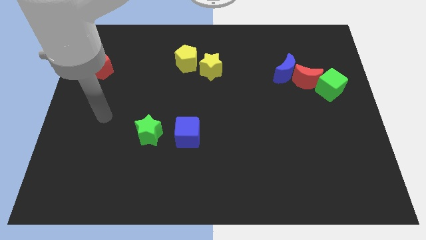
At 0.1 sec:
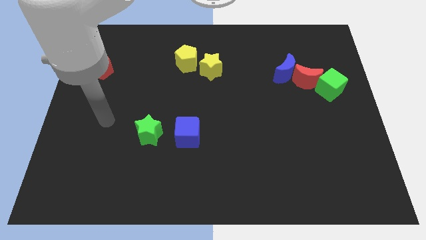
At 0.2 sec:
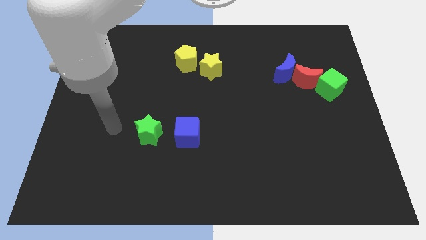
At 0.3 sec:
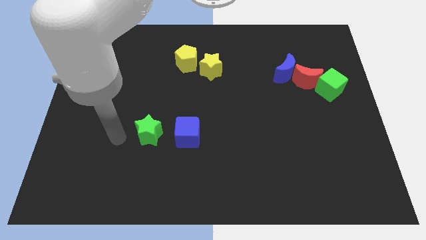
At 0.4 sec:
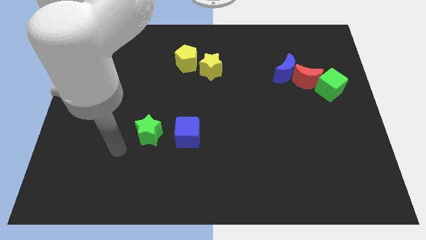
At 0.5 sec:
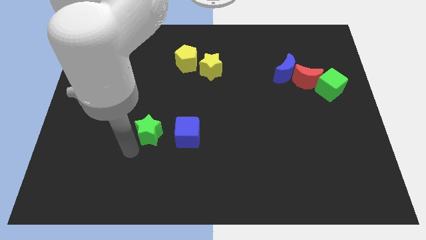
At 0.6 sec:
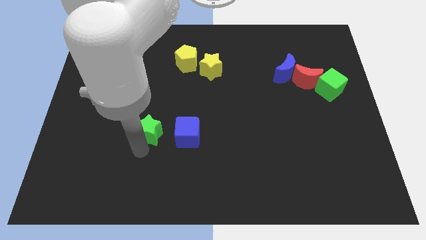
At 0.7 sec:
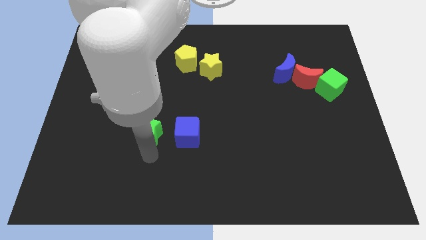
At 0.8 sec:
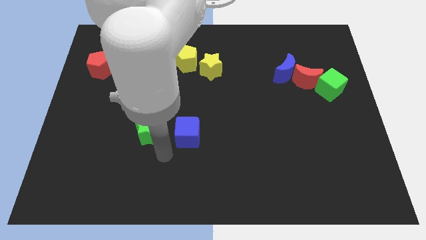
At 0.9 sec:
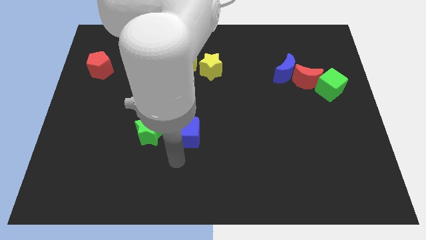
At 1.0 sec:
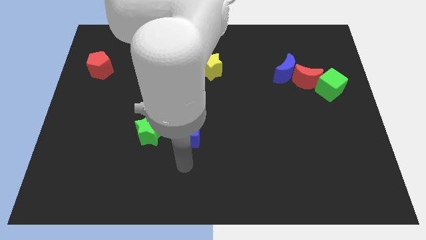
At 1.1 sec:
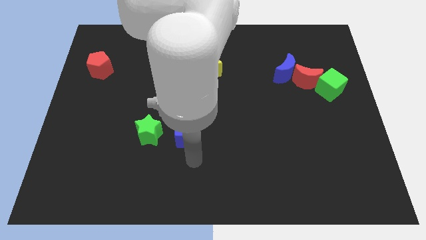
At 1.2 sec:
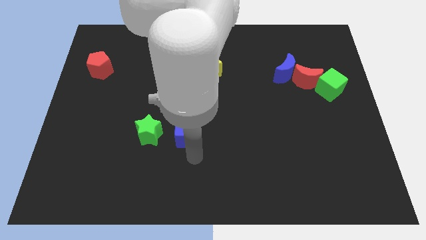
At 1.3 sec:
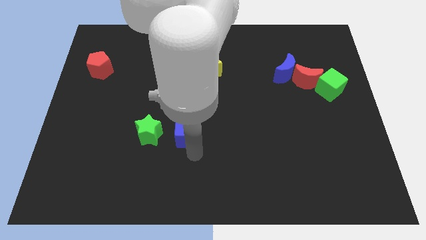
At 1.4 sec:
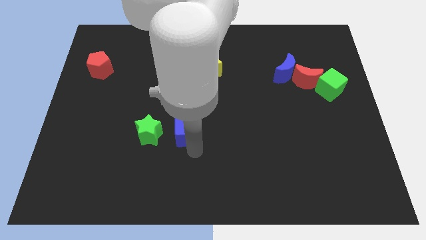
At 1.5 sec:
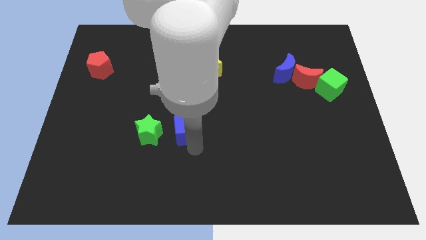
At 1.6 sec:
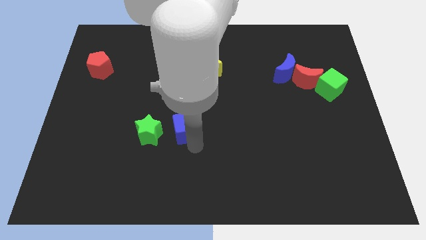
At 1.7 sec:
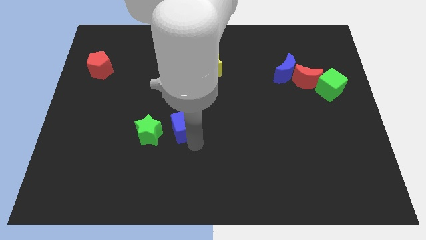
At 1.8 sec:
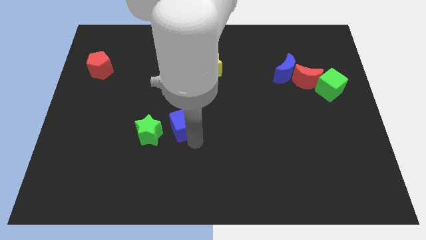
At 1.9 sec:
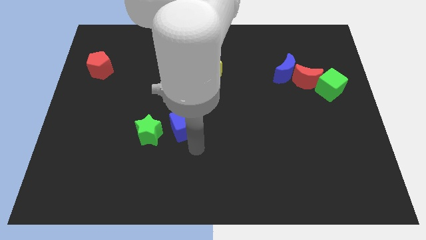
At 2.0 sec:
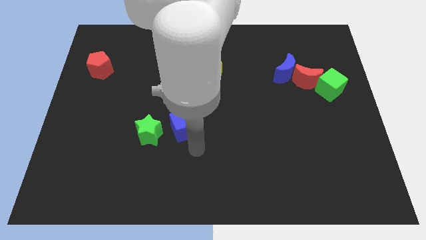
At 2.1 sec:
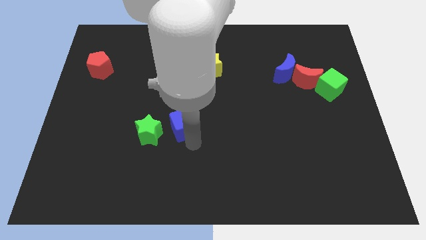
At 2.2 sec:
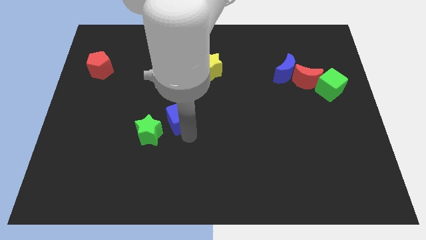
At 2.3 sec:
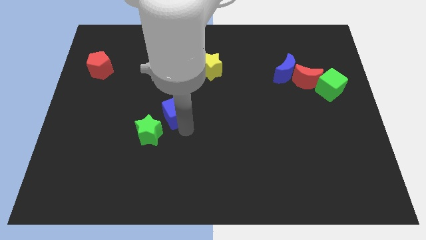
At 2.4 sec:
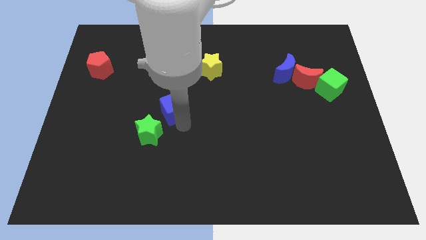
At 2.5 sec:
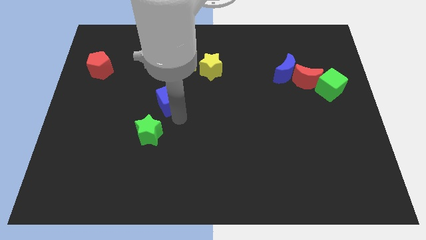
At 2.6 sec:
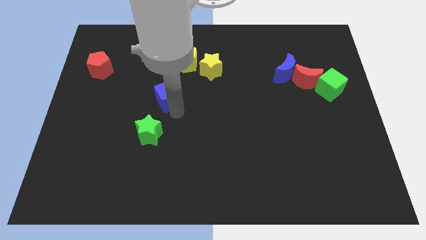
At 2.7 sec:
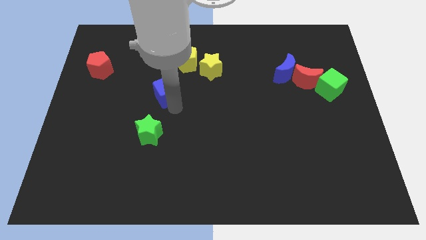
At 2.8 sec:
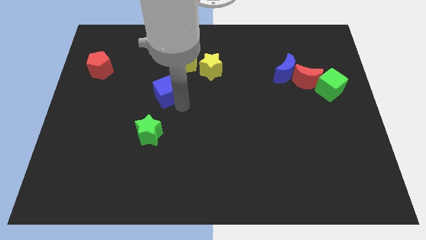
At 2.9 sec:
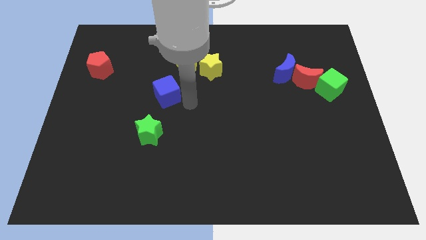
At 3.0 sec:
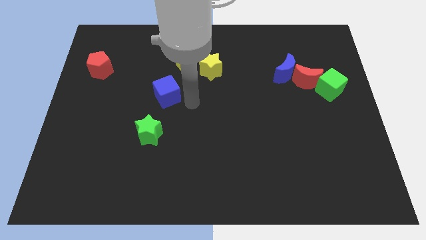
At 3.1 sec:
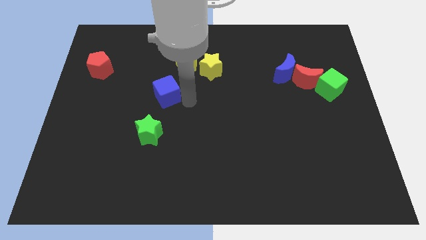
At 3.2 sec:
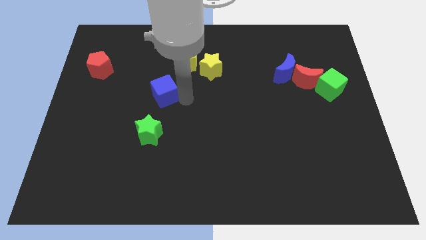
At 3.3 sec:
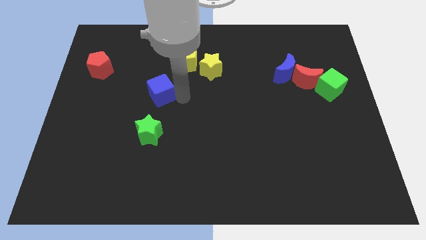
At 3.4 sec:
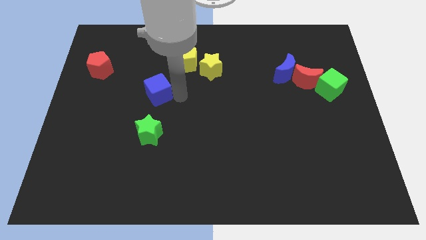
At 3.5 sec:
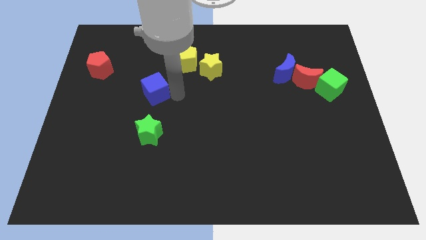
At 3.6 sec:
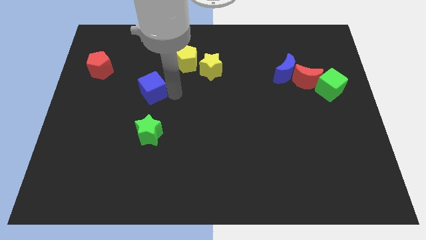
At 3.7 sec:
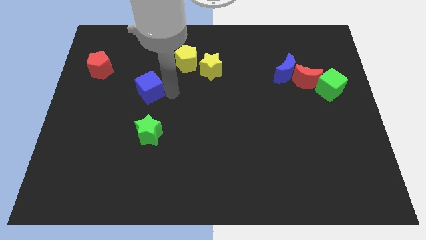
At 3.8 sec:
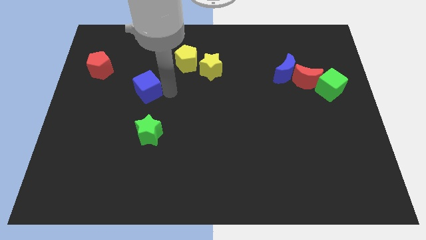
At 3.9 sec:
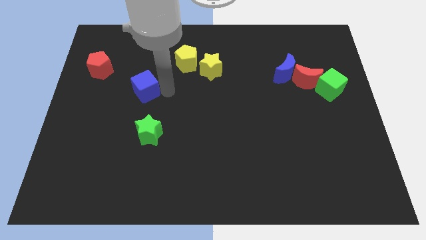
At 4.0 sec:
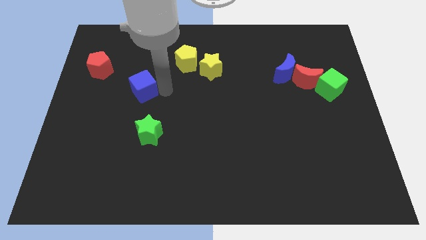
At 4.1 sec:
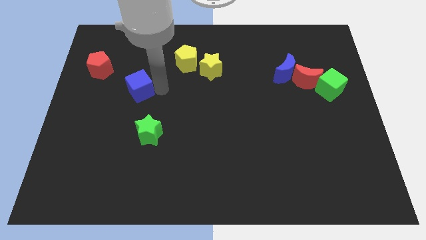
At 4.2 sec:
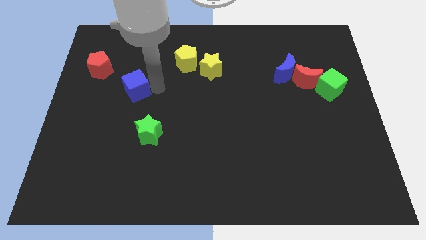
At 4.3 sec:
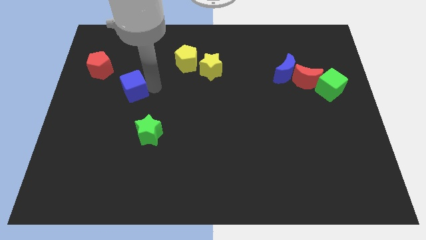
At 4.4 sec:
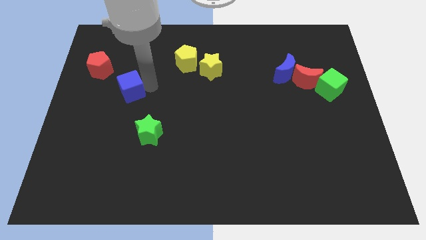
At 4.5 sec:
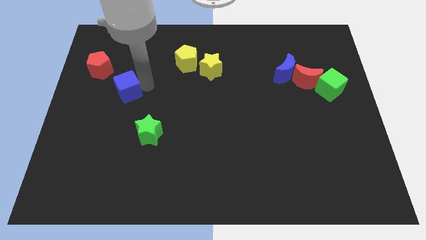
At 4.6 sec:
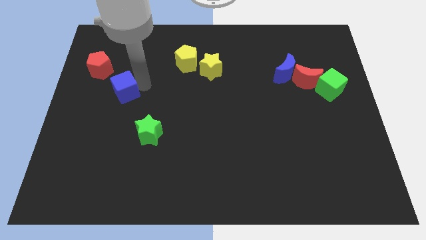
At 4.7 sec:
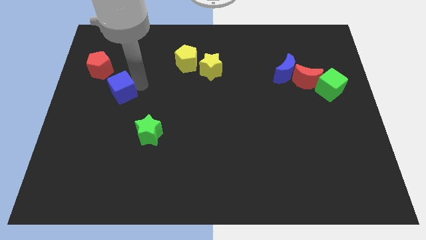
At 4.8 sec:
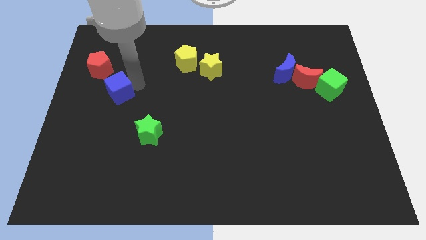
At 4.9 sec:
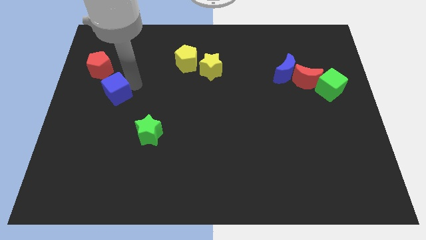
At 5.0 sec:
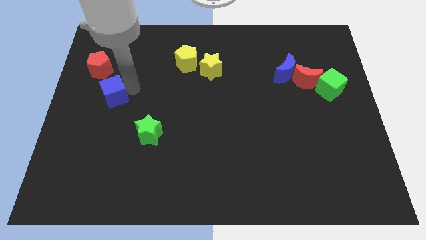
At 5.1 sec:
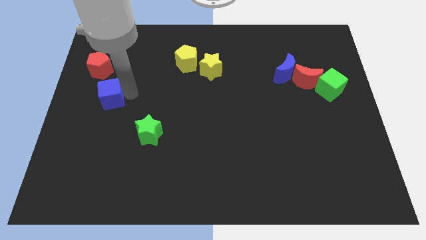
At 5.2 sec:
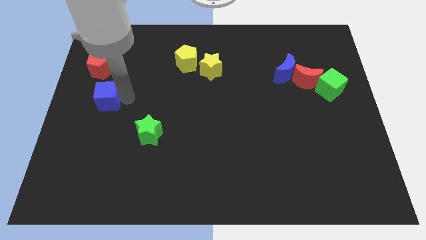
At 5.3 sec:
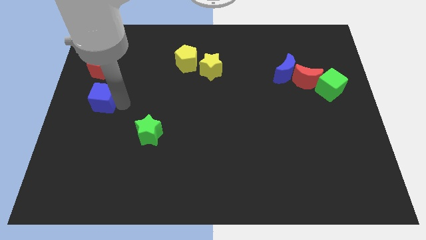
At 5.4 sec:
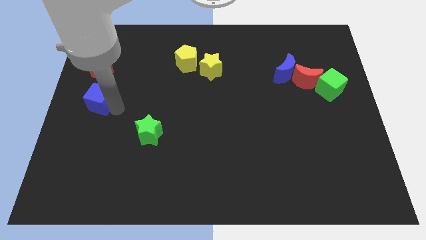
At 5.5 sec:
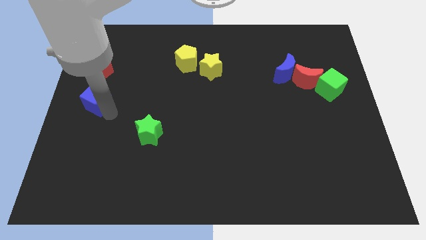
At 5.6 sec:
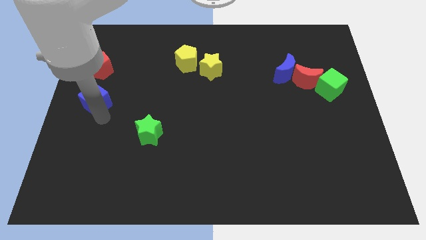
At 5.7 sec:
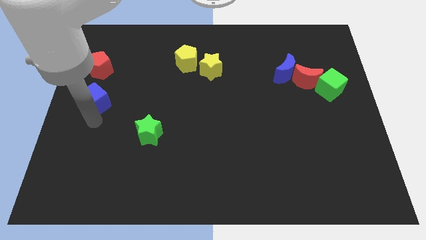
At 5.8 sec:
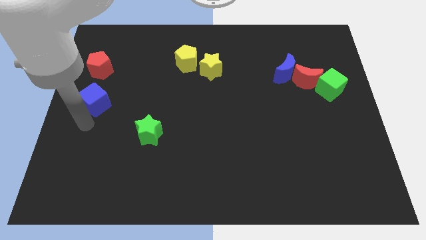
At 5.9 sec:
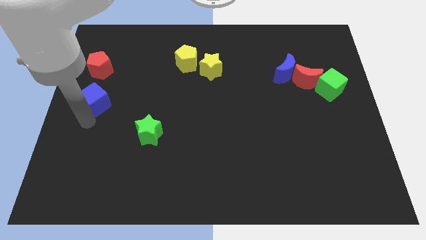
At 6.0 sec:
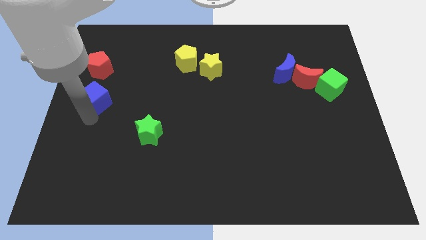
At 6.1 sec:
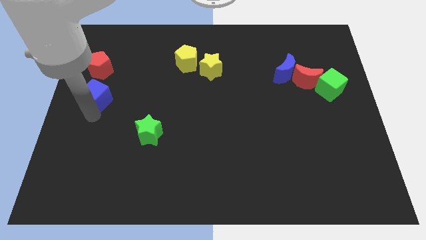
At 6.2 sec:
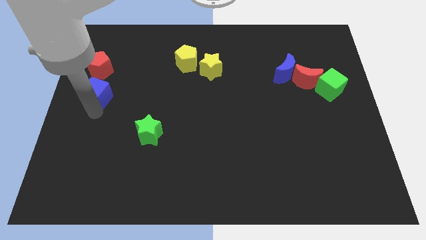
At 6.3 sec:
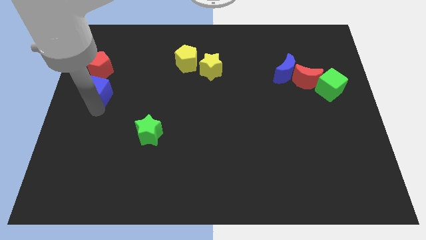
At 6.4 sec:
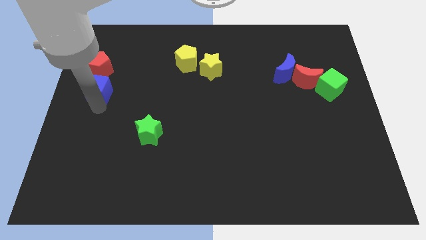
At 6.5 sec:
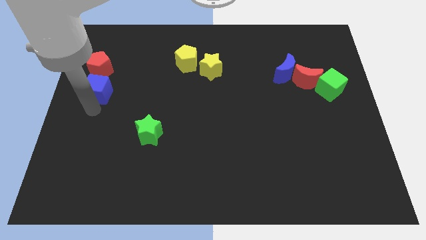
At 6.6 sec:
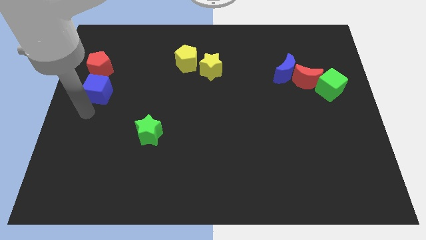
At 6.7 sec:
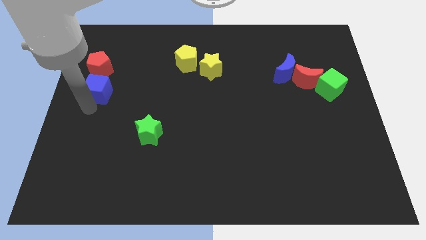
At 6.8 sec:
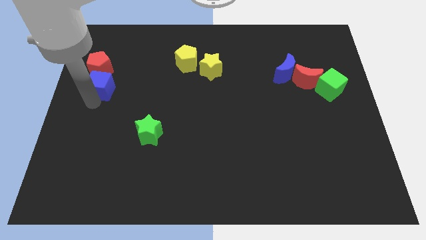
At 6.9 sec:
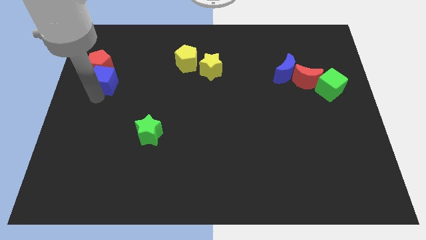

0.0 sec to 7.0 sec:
put the blue cube close to the red pentagon

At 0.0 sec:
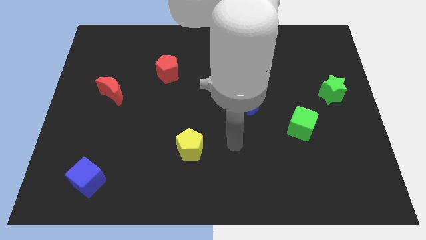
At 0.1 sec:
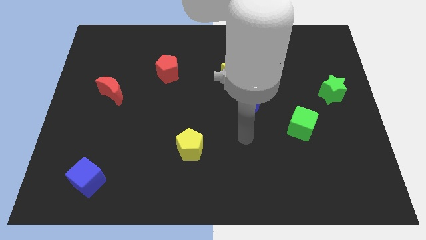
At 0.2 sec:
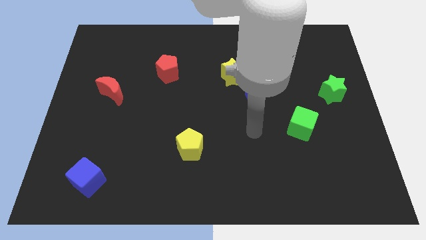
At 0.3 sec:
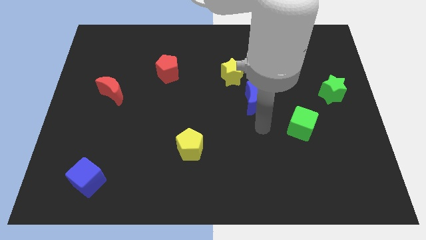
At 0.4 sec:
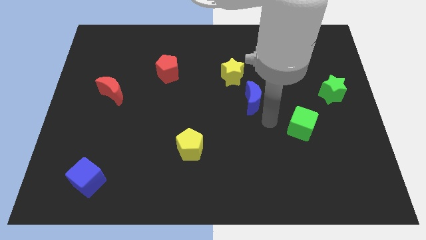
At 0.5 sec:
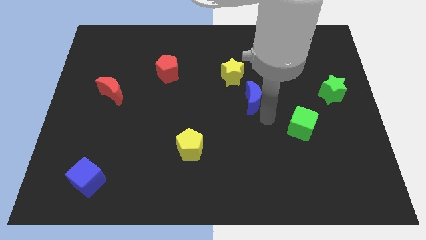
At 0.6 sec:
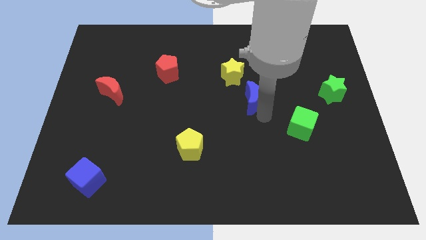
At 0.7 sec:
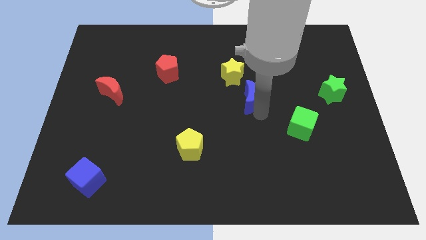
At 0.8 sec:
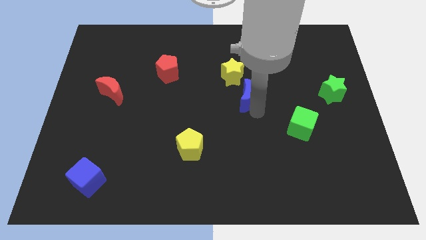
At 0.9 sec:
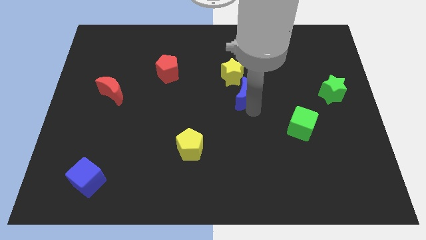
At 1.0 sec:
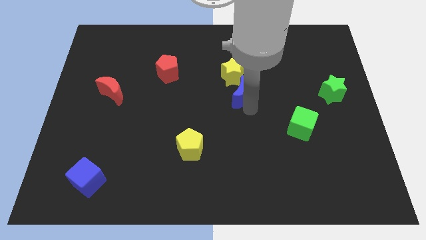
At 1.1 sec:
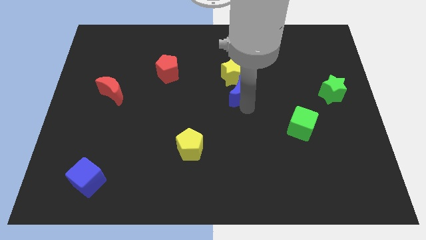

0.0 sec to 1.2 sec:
move the blue moon to the yellow star
